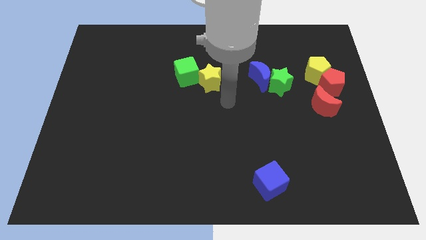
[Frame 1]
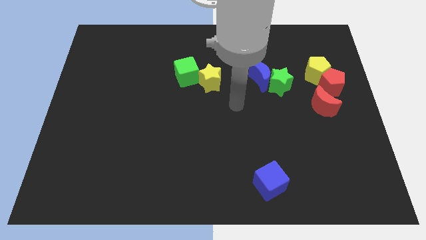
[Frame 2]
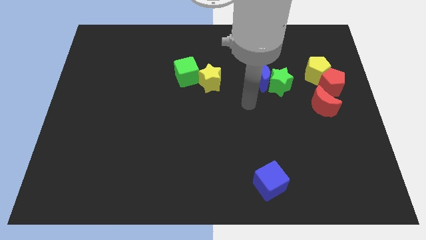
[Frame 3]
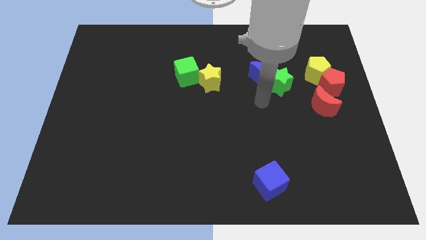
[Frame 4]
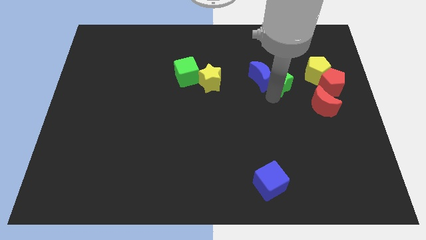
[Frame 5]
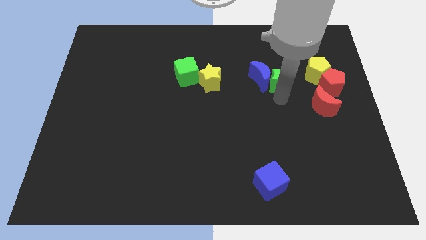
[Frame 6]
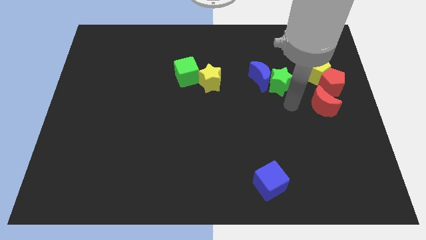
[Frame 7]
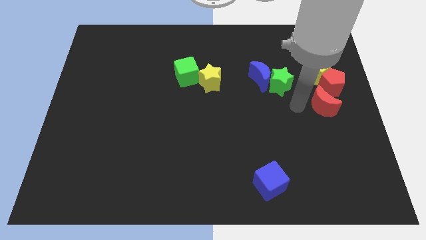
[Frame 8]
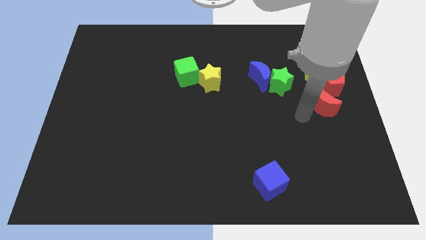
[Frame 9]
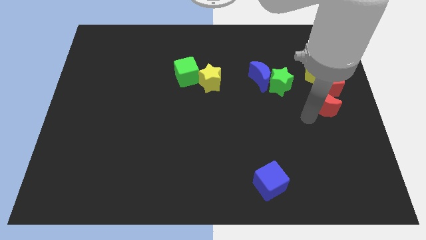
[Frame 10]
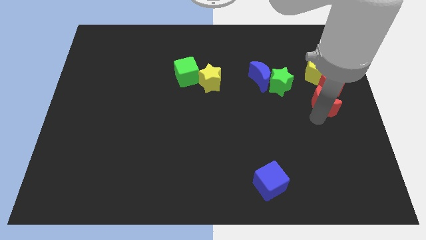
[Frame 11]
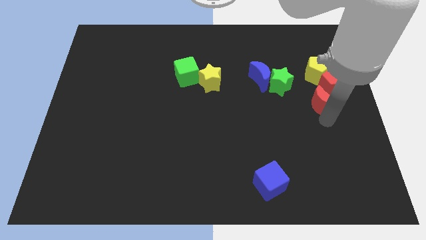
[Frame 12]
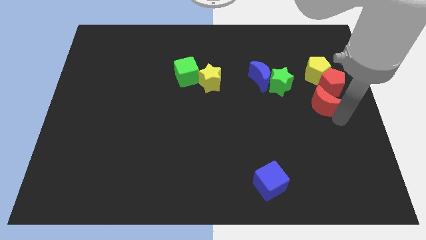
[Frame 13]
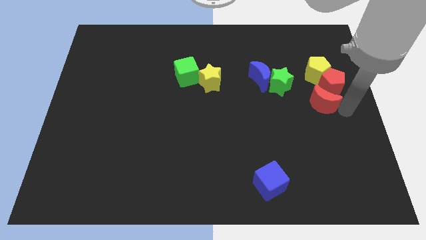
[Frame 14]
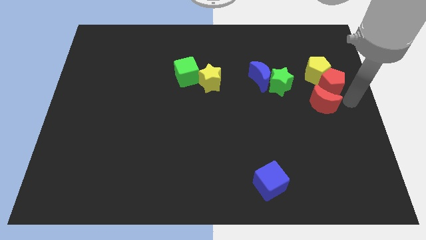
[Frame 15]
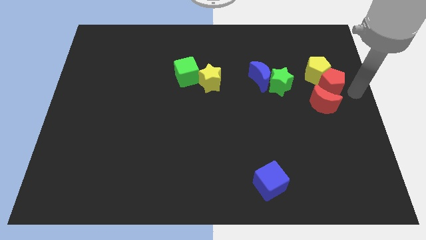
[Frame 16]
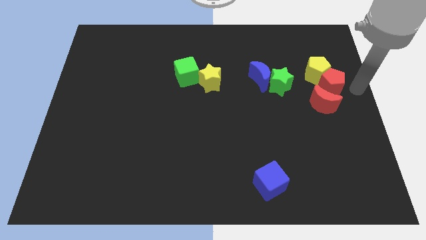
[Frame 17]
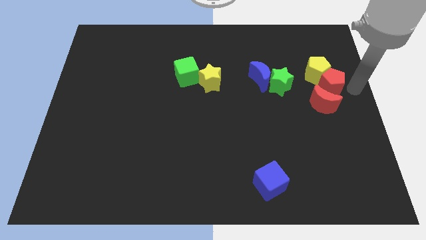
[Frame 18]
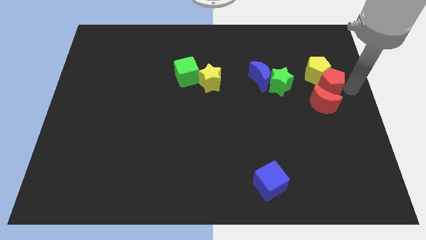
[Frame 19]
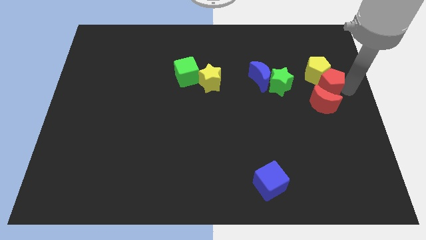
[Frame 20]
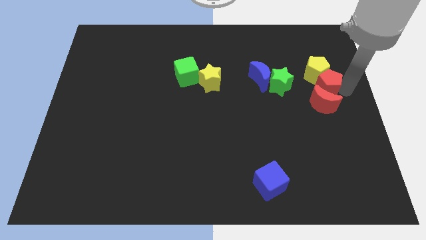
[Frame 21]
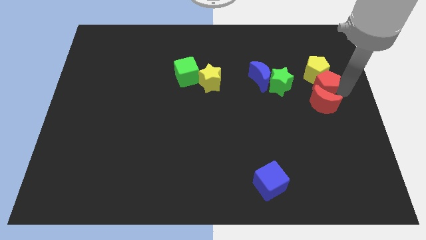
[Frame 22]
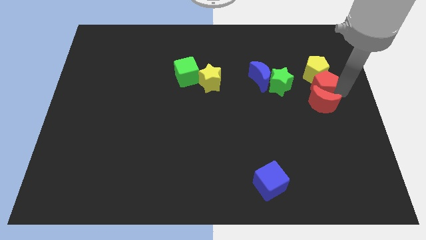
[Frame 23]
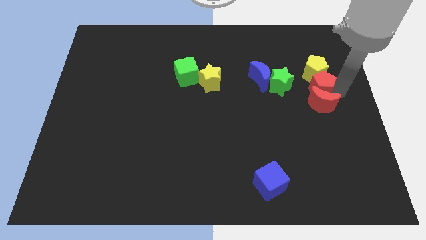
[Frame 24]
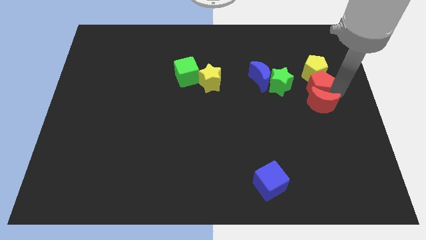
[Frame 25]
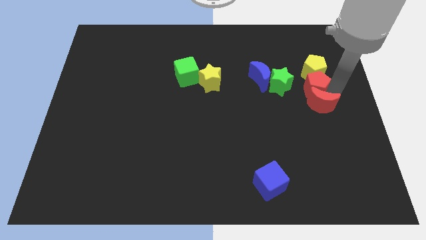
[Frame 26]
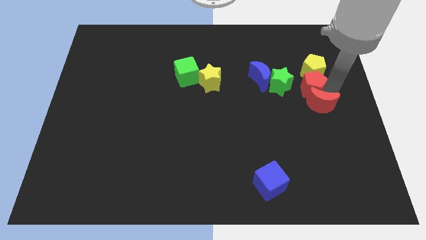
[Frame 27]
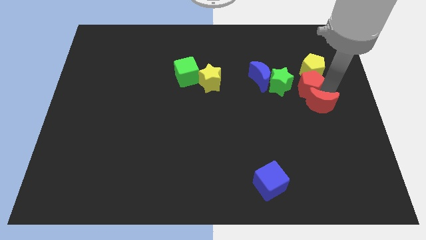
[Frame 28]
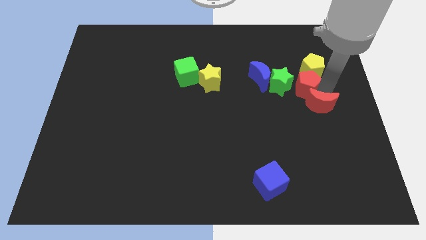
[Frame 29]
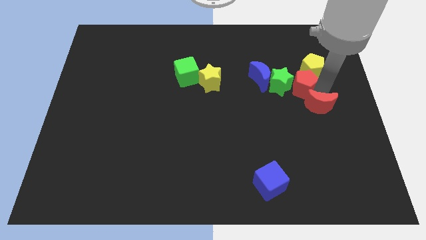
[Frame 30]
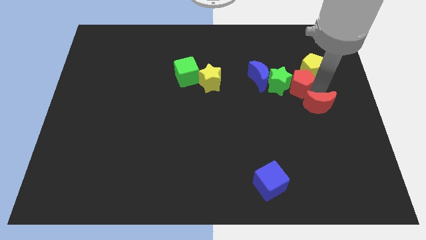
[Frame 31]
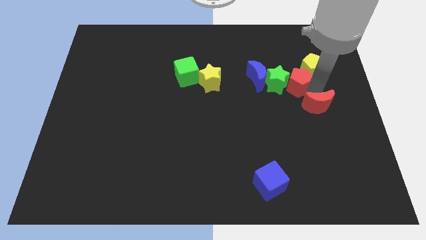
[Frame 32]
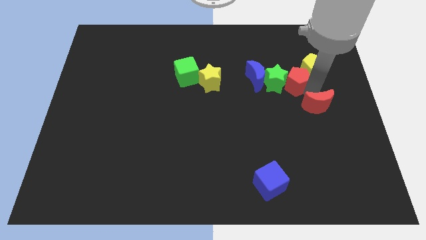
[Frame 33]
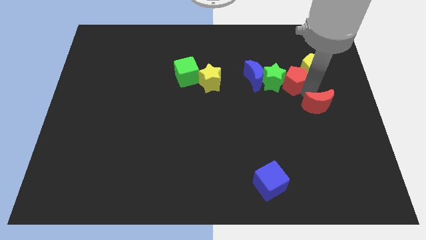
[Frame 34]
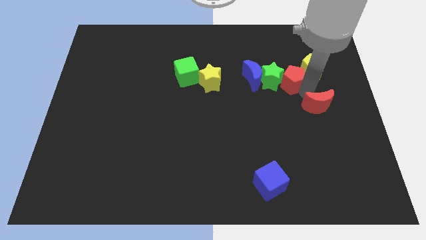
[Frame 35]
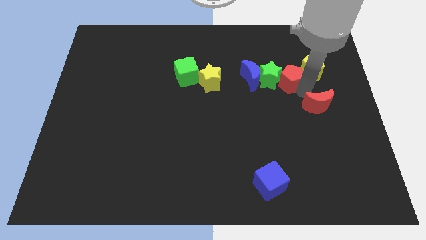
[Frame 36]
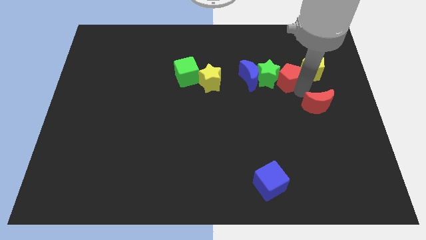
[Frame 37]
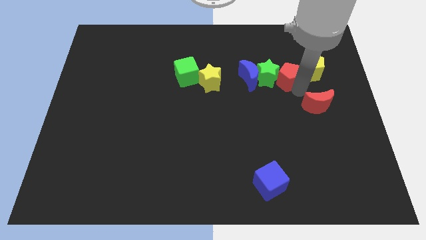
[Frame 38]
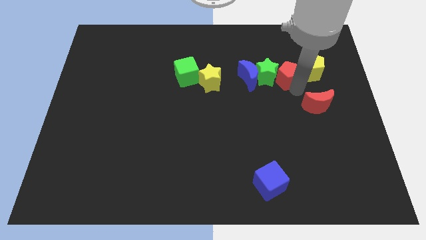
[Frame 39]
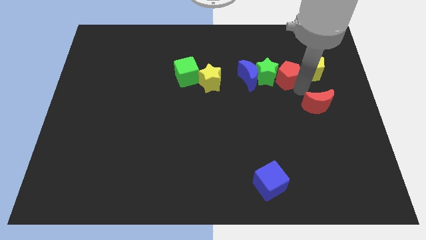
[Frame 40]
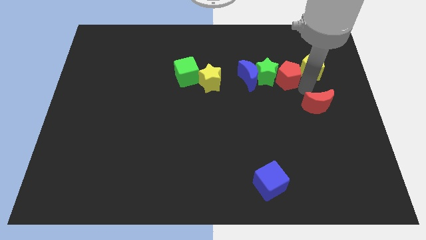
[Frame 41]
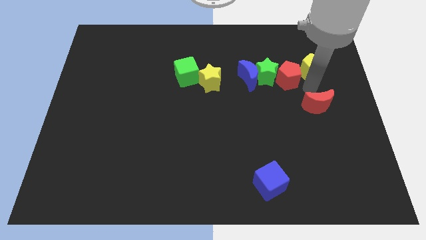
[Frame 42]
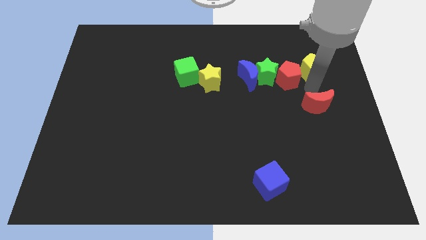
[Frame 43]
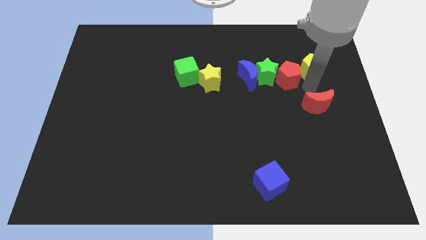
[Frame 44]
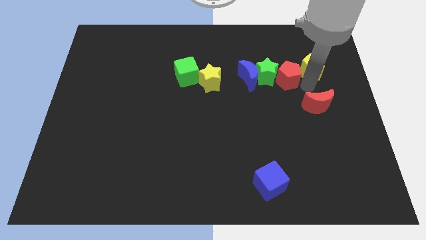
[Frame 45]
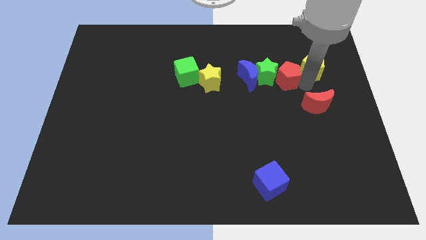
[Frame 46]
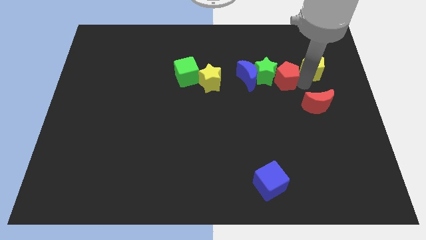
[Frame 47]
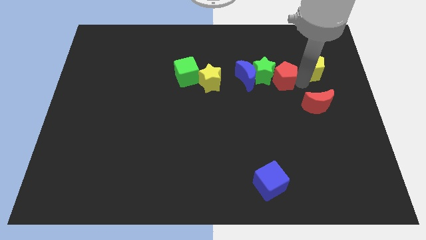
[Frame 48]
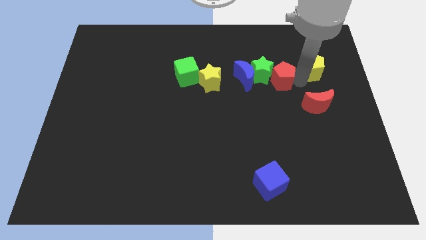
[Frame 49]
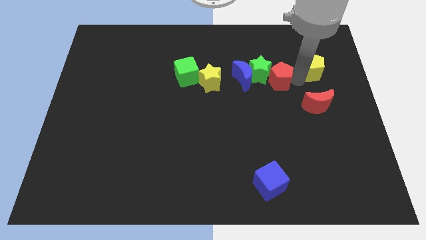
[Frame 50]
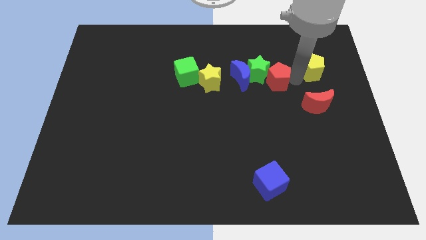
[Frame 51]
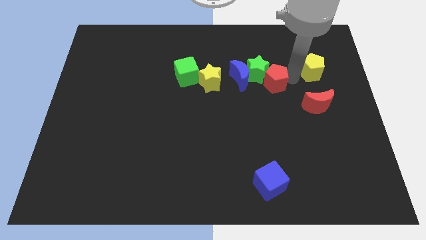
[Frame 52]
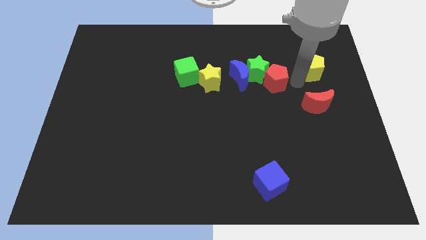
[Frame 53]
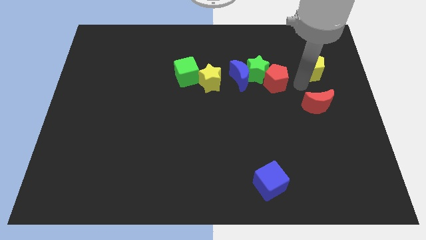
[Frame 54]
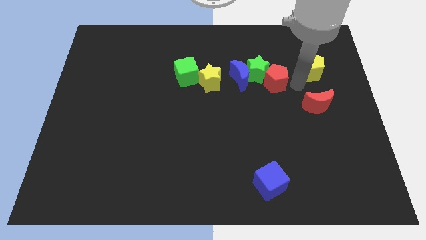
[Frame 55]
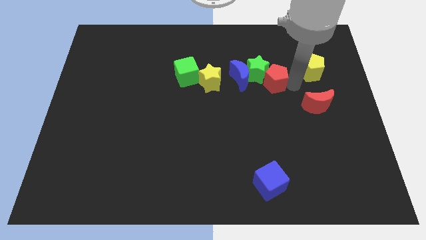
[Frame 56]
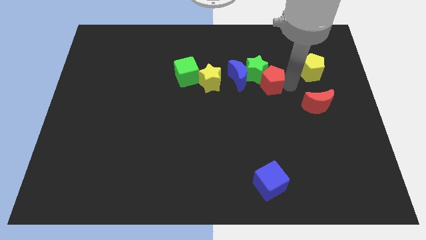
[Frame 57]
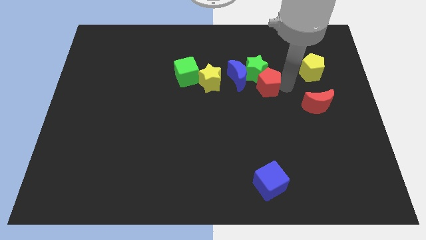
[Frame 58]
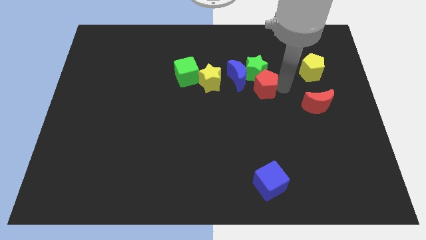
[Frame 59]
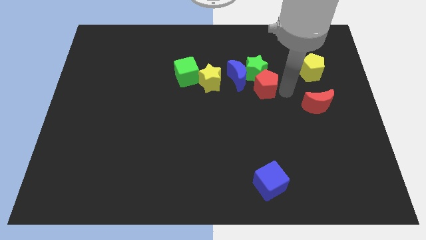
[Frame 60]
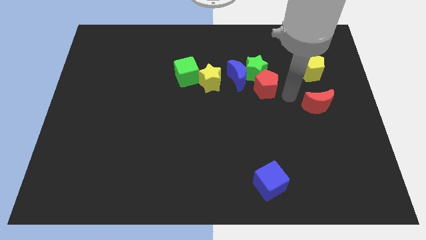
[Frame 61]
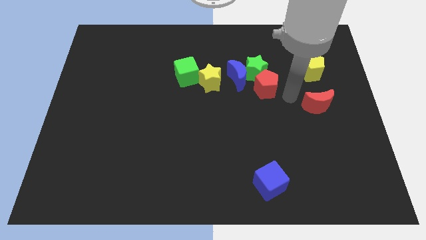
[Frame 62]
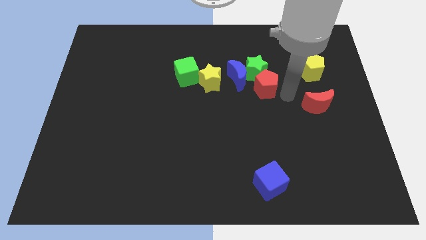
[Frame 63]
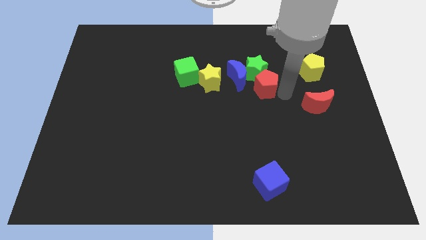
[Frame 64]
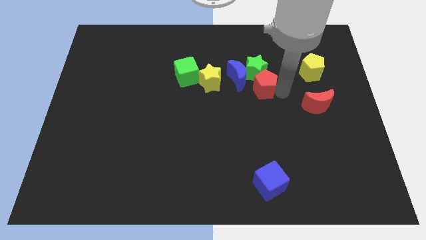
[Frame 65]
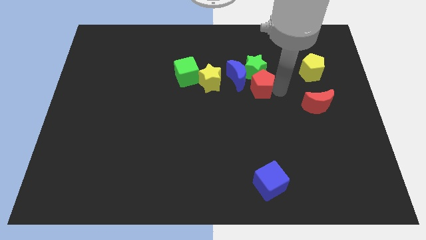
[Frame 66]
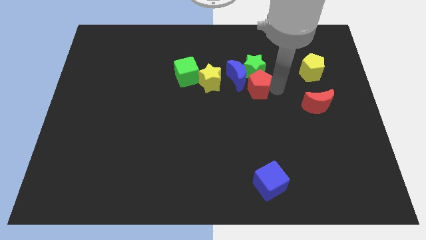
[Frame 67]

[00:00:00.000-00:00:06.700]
slide the red pentagon to the blue moon
